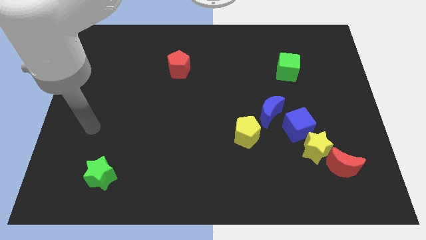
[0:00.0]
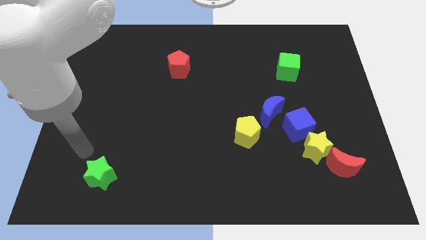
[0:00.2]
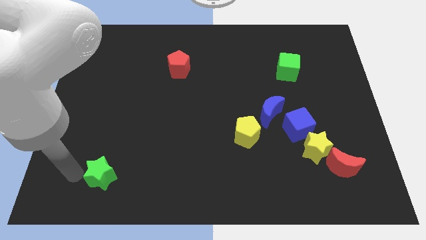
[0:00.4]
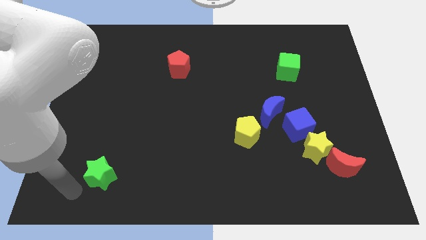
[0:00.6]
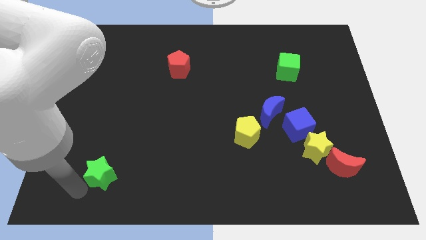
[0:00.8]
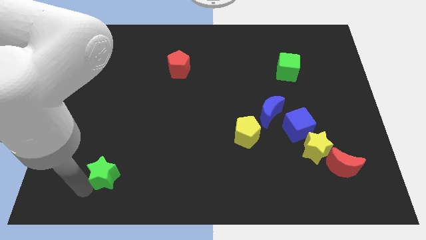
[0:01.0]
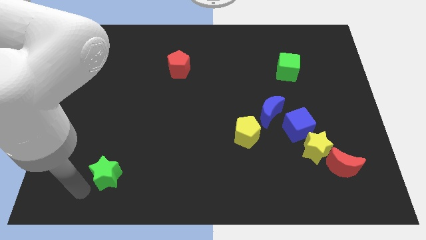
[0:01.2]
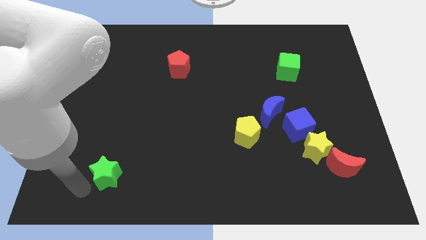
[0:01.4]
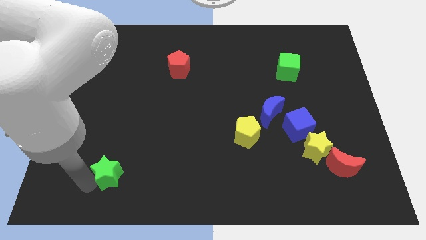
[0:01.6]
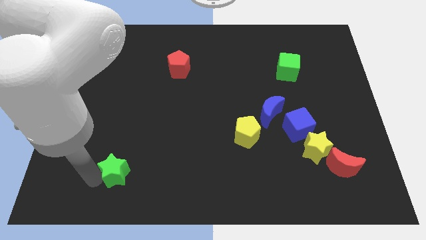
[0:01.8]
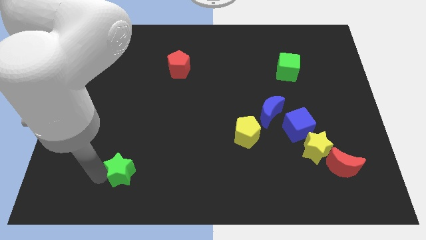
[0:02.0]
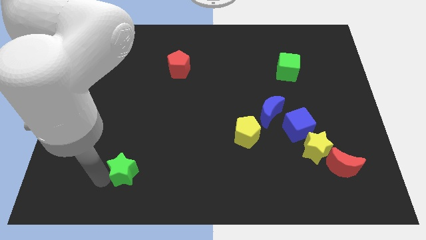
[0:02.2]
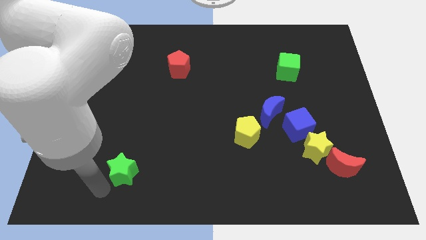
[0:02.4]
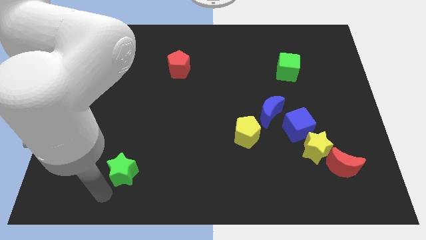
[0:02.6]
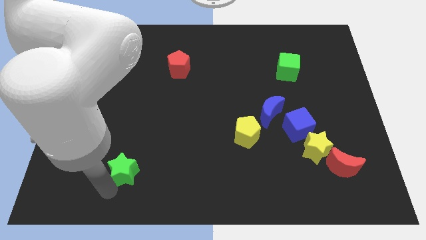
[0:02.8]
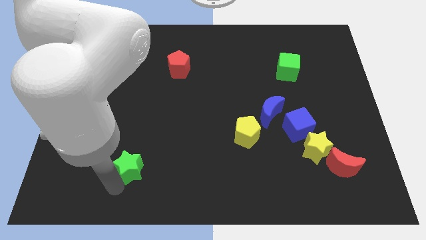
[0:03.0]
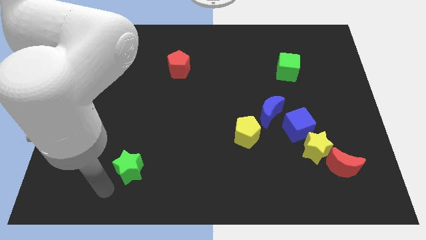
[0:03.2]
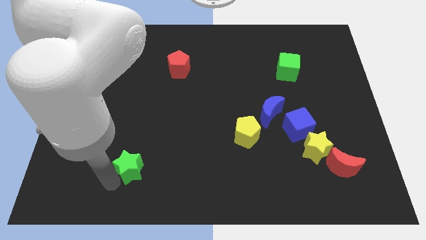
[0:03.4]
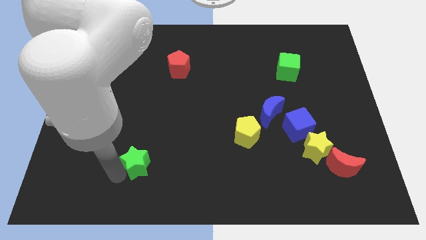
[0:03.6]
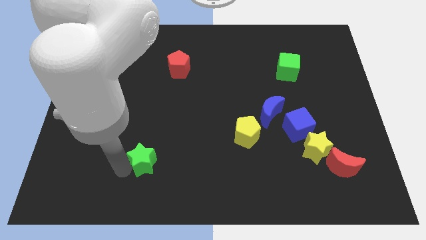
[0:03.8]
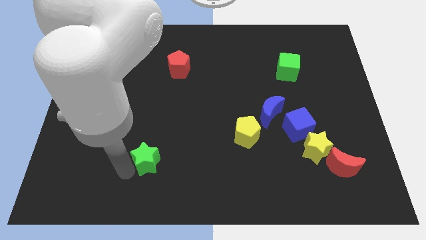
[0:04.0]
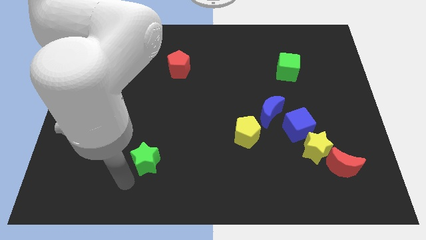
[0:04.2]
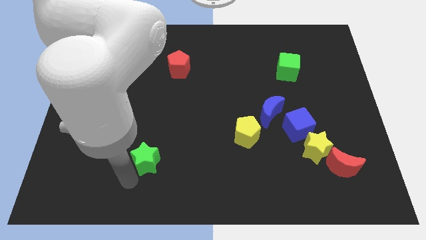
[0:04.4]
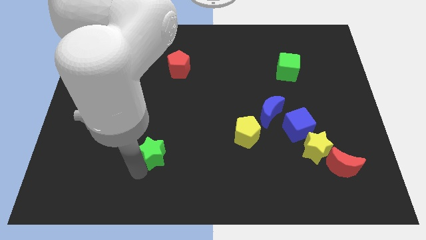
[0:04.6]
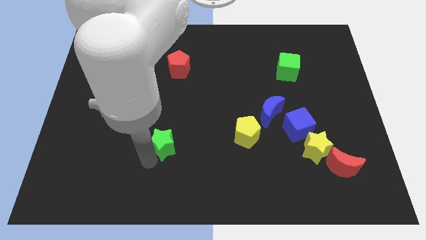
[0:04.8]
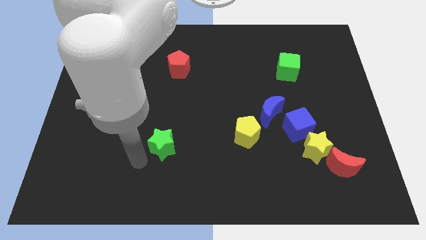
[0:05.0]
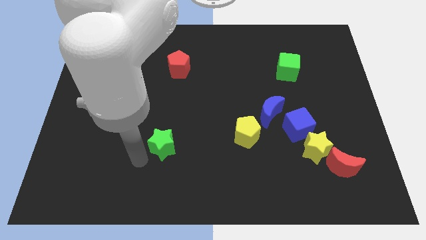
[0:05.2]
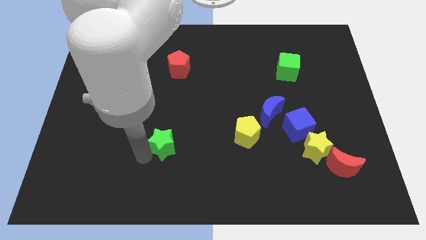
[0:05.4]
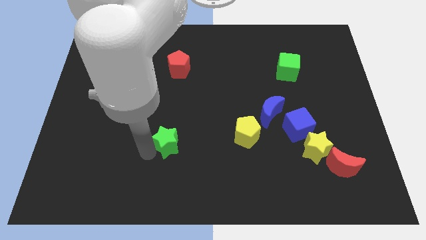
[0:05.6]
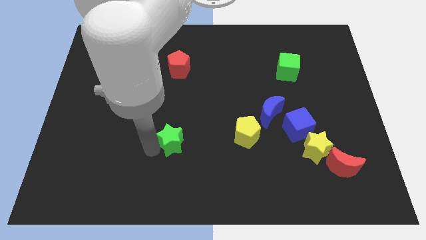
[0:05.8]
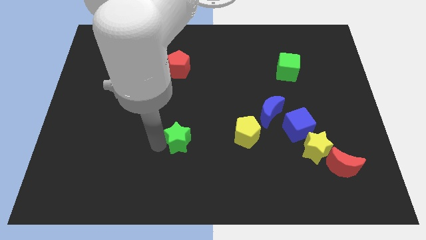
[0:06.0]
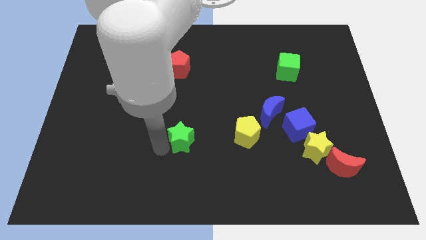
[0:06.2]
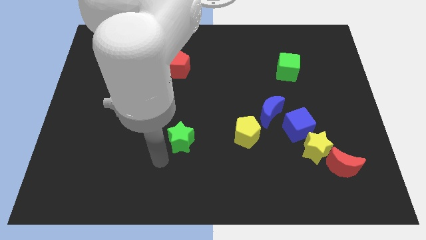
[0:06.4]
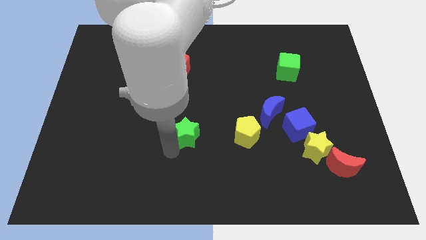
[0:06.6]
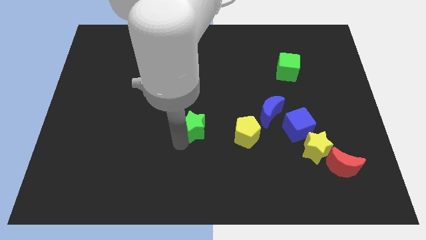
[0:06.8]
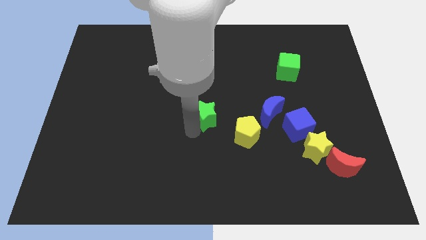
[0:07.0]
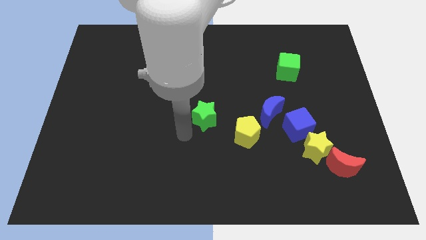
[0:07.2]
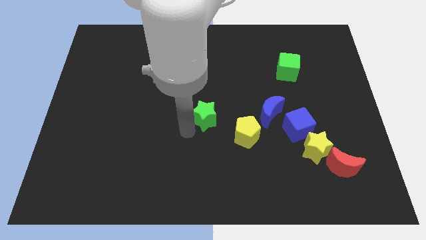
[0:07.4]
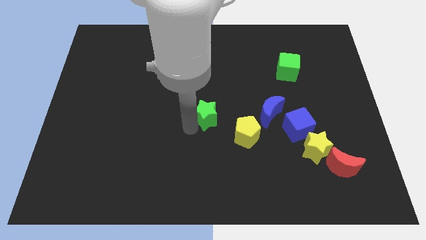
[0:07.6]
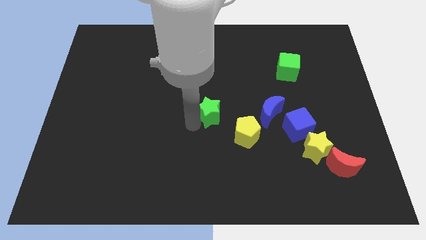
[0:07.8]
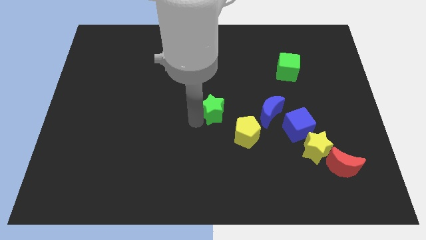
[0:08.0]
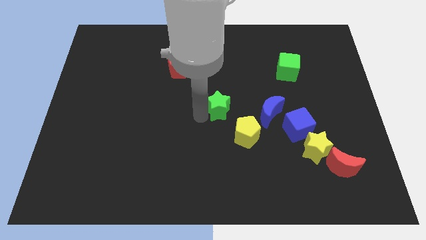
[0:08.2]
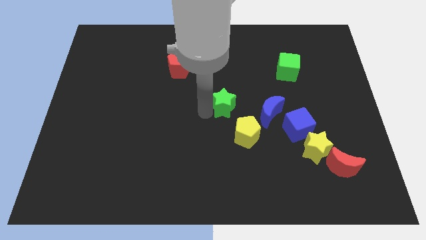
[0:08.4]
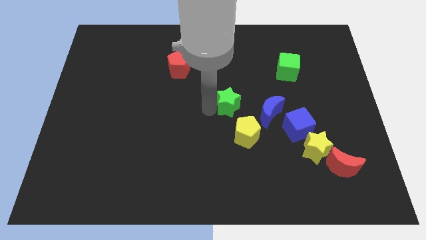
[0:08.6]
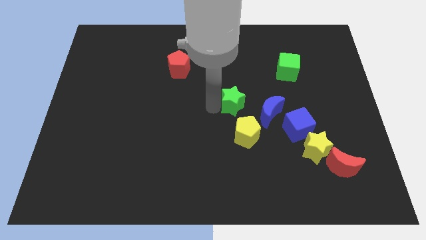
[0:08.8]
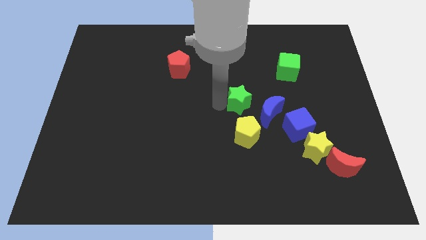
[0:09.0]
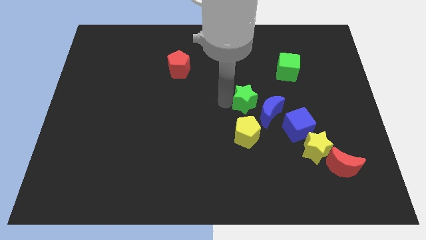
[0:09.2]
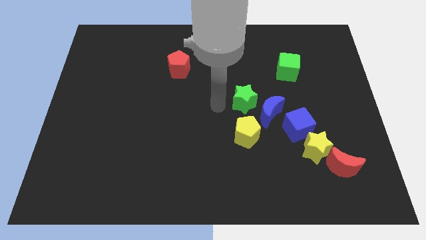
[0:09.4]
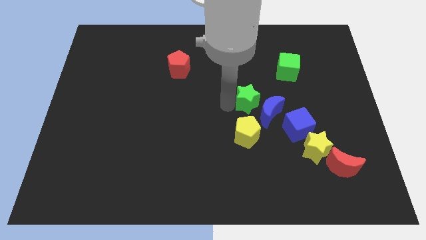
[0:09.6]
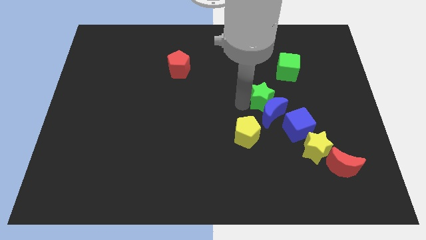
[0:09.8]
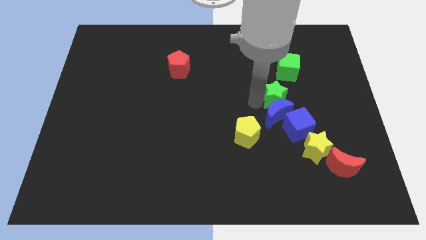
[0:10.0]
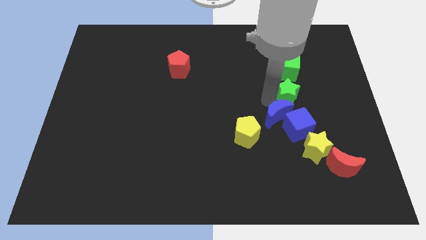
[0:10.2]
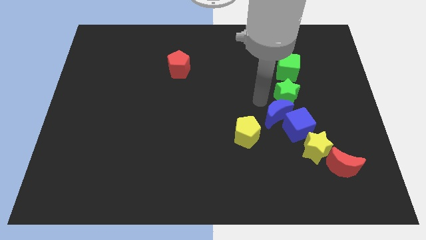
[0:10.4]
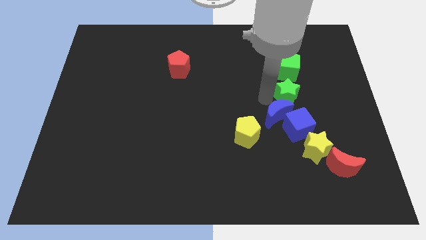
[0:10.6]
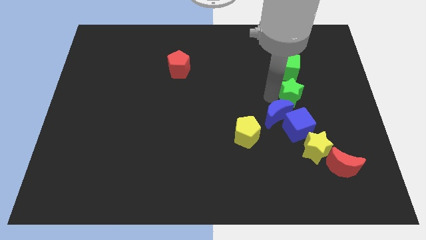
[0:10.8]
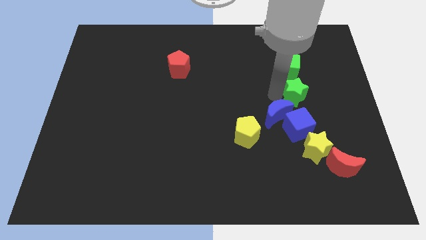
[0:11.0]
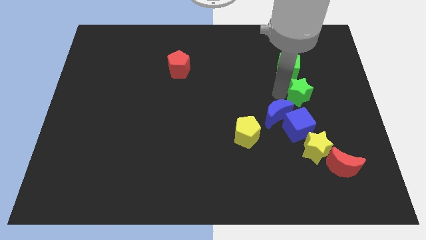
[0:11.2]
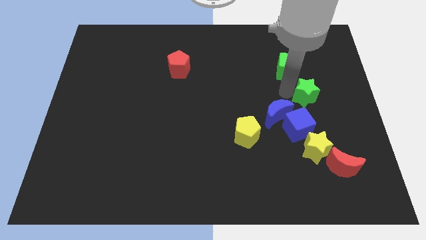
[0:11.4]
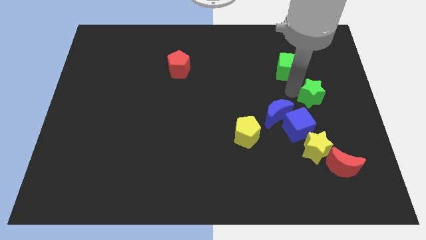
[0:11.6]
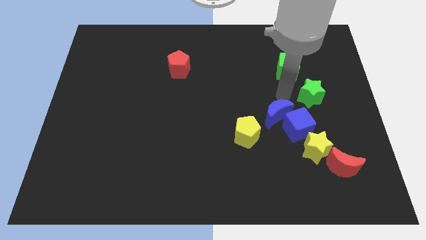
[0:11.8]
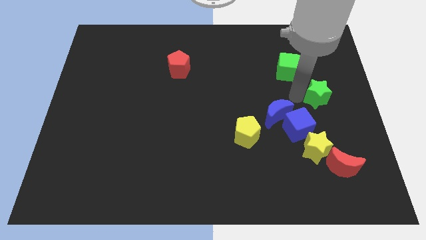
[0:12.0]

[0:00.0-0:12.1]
push the green star to the right side
